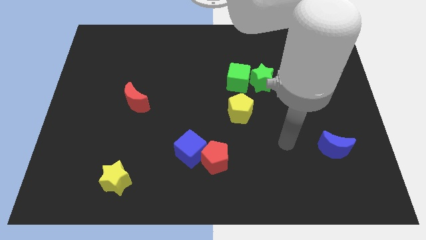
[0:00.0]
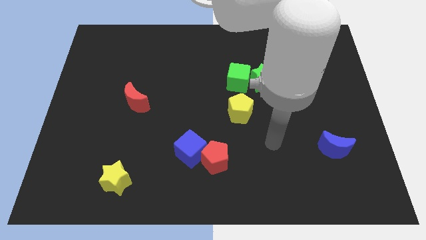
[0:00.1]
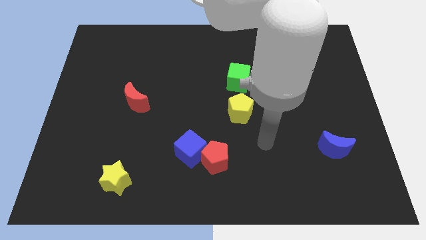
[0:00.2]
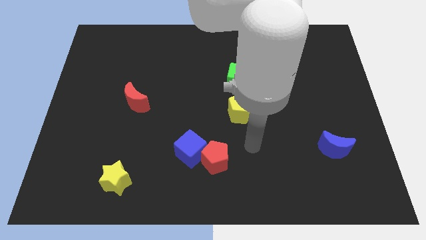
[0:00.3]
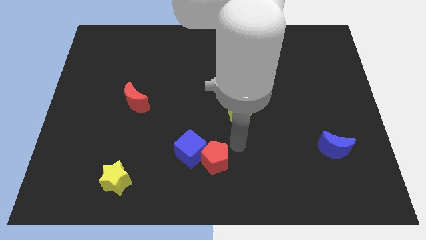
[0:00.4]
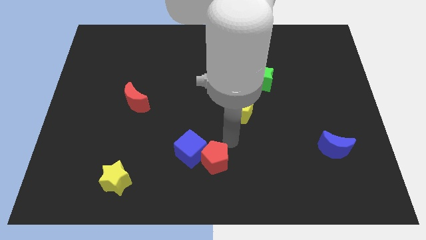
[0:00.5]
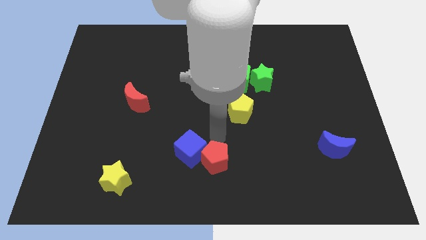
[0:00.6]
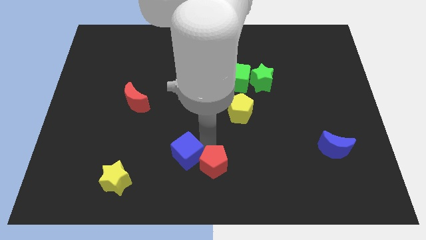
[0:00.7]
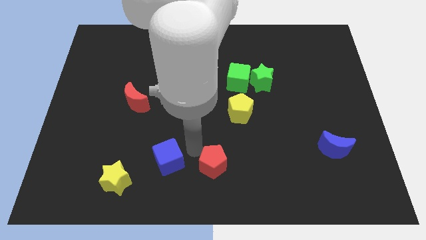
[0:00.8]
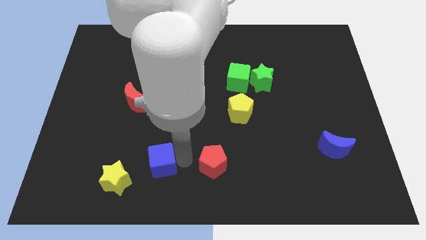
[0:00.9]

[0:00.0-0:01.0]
pull the red pentagon apart from the blue cube

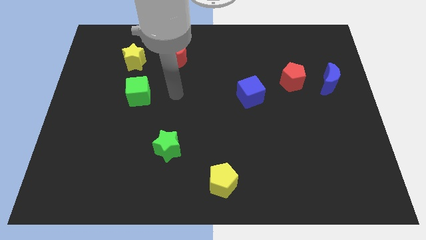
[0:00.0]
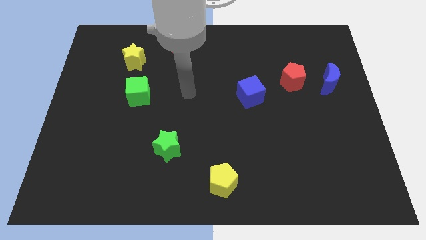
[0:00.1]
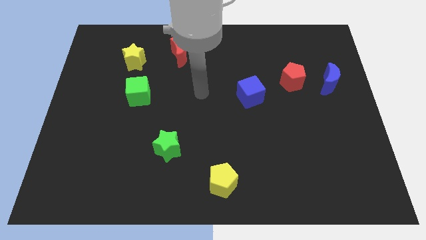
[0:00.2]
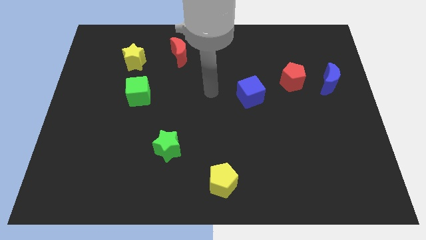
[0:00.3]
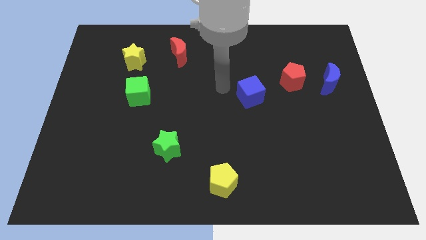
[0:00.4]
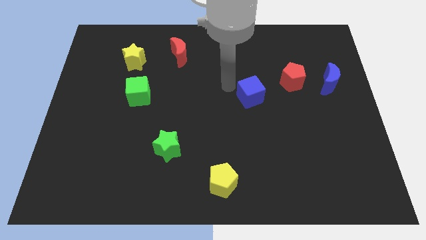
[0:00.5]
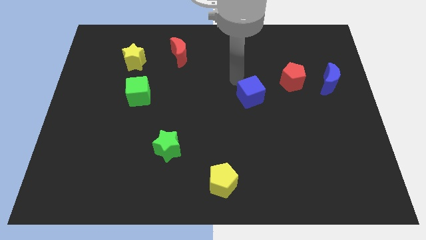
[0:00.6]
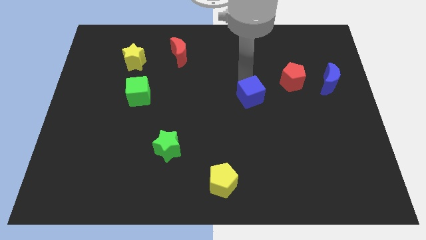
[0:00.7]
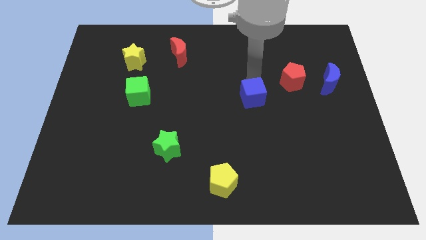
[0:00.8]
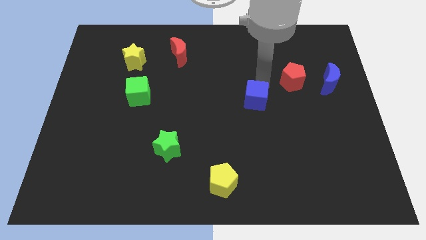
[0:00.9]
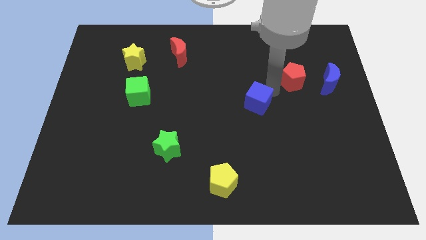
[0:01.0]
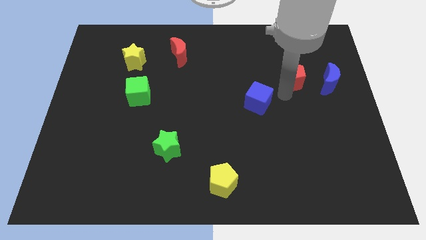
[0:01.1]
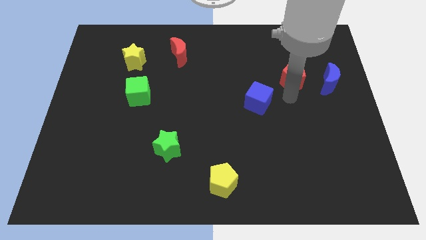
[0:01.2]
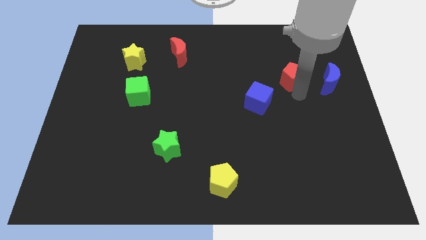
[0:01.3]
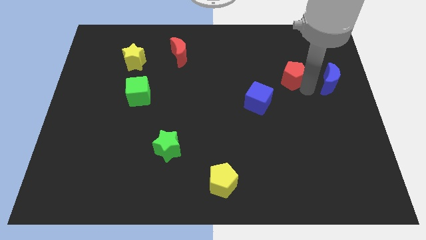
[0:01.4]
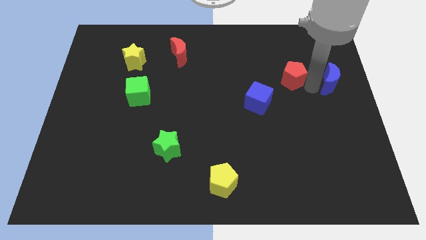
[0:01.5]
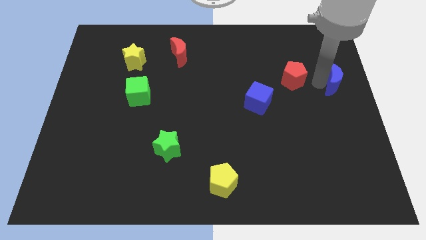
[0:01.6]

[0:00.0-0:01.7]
pull the red pentagon apart from the blue moon

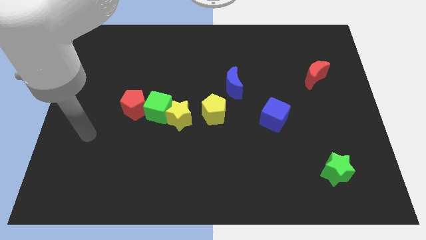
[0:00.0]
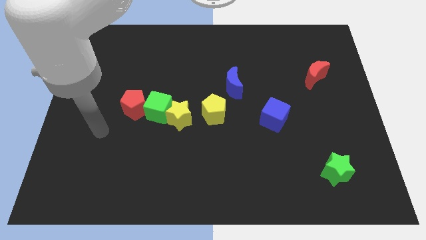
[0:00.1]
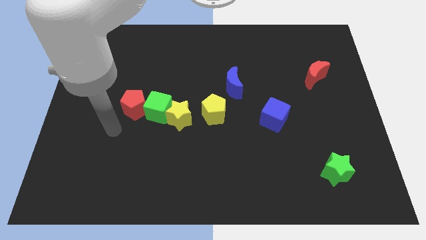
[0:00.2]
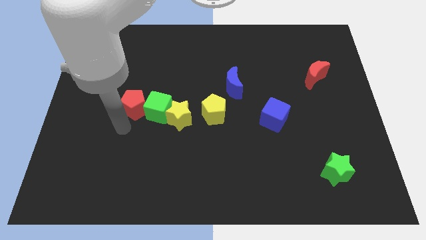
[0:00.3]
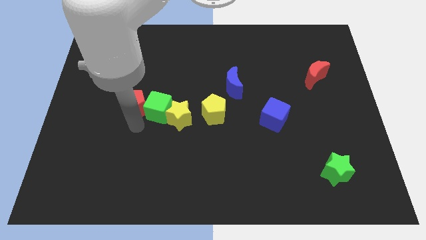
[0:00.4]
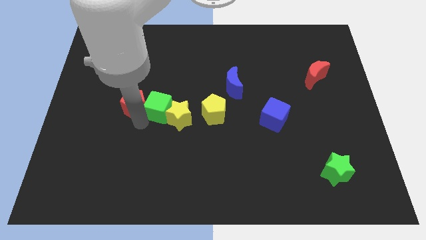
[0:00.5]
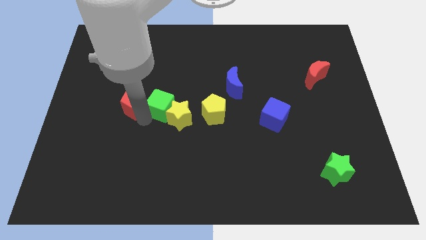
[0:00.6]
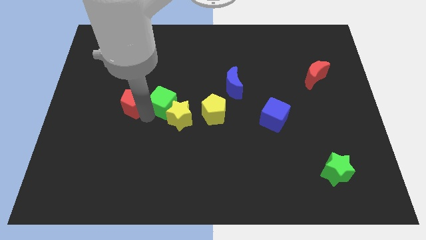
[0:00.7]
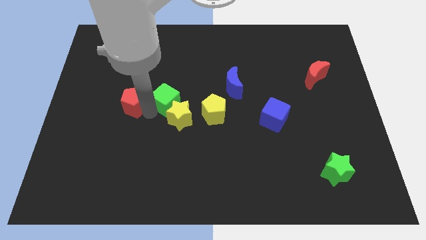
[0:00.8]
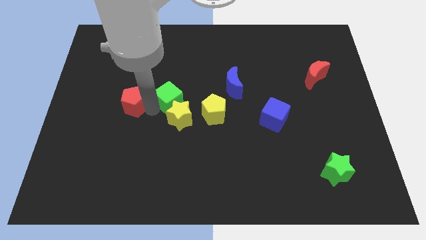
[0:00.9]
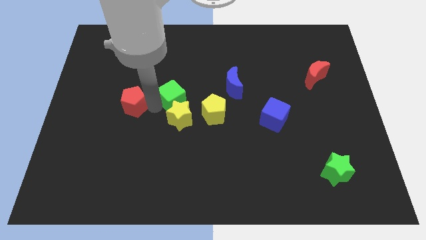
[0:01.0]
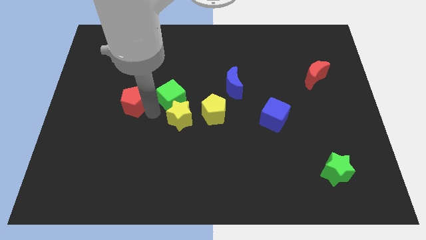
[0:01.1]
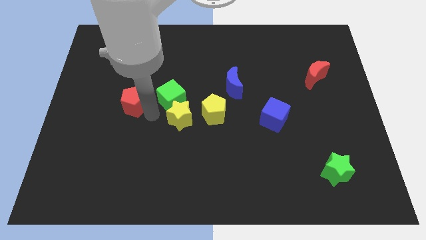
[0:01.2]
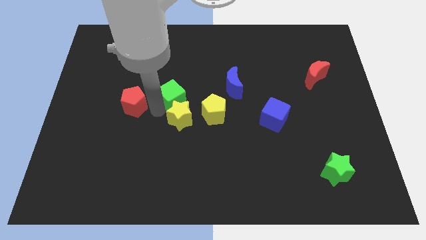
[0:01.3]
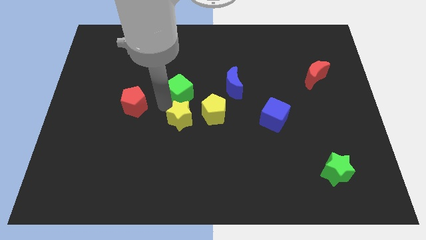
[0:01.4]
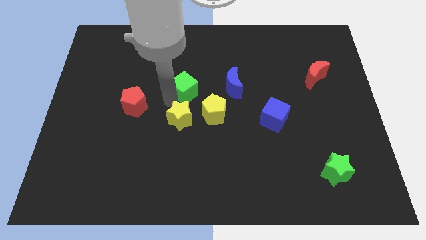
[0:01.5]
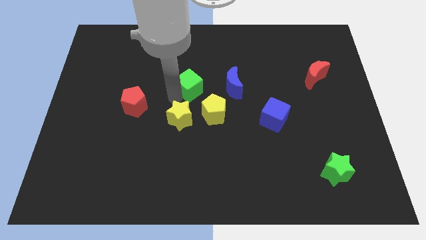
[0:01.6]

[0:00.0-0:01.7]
pull the green cube apart from the yellow star and red pentagon

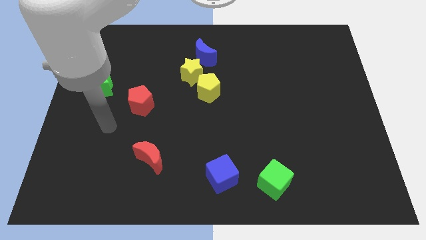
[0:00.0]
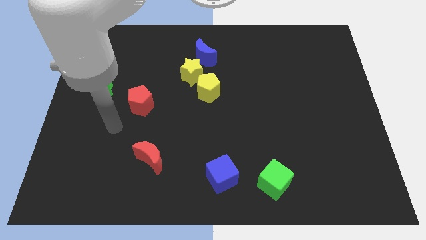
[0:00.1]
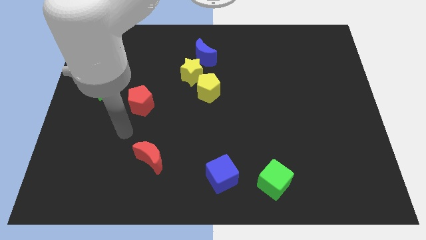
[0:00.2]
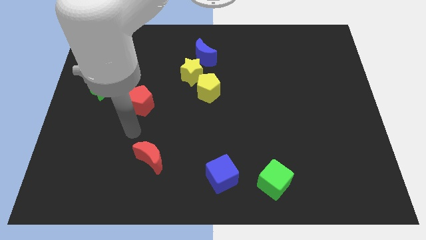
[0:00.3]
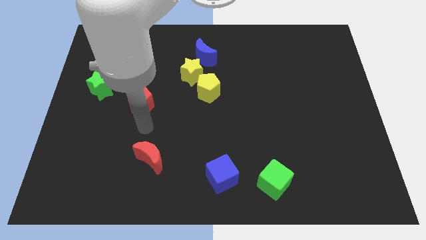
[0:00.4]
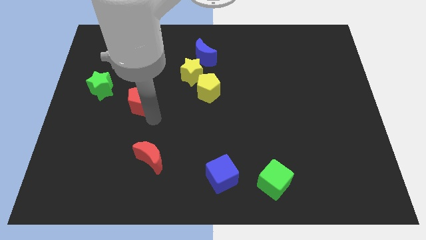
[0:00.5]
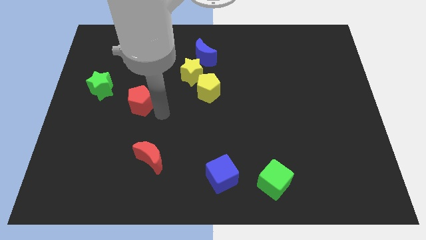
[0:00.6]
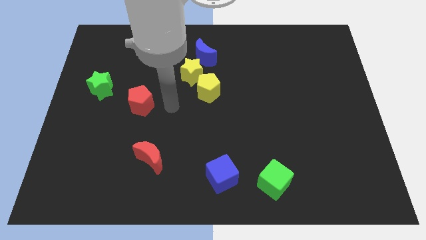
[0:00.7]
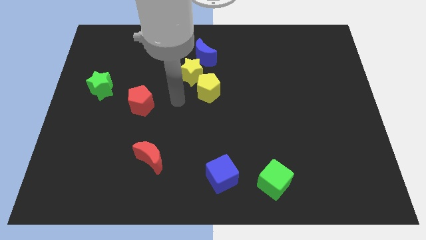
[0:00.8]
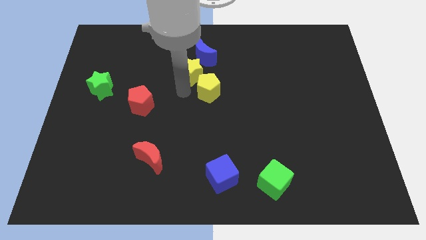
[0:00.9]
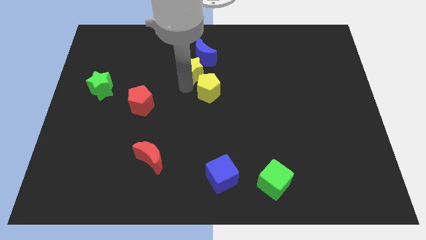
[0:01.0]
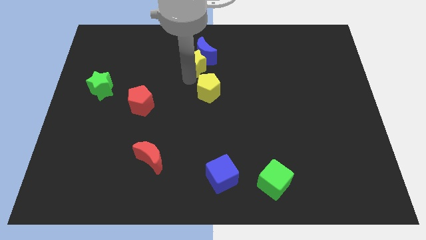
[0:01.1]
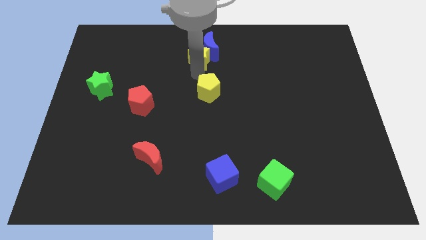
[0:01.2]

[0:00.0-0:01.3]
pull the yellow pentagon apart from the yellow star

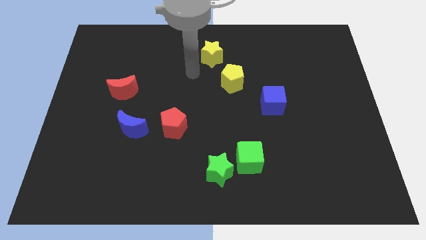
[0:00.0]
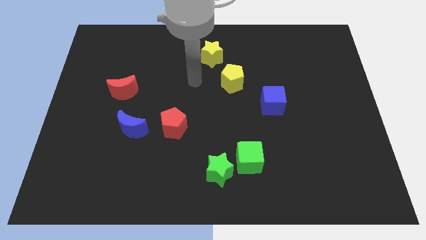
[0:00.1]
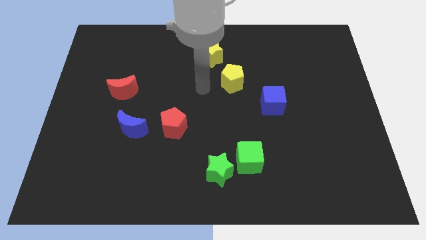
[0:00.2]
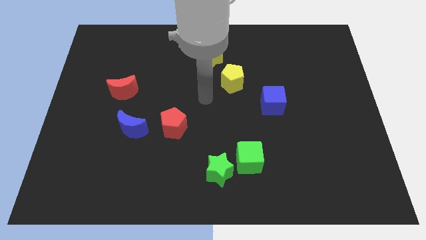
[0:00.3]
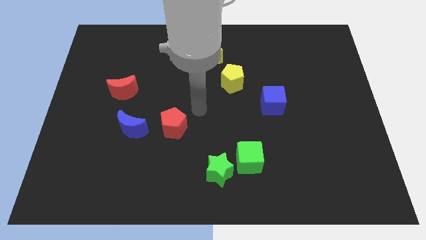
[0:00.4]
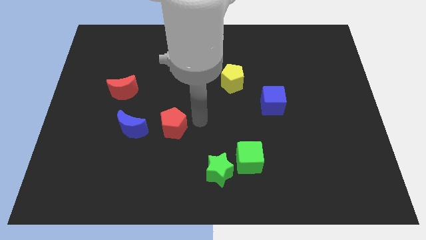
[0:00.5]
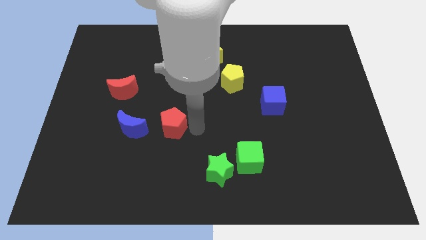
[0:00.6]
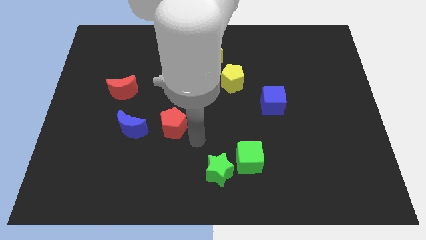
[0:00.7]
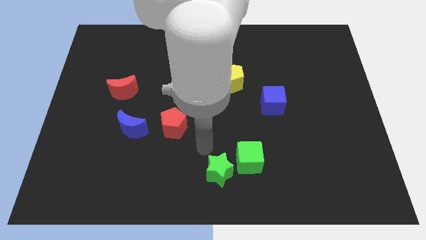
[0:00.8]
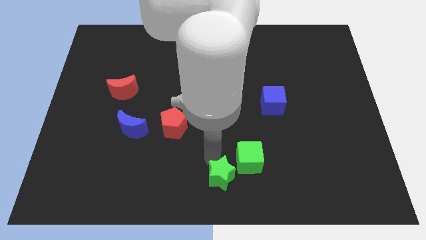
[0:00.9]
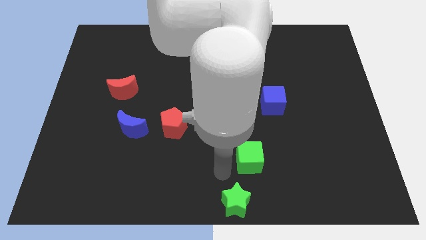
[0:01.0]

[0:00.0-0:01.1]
pull the green cube apart from the green star

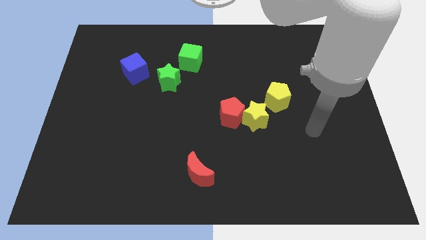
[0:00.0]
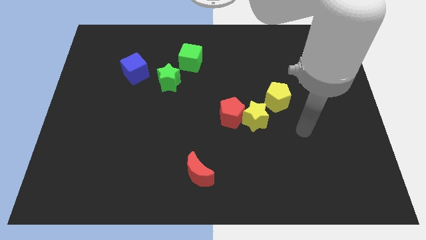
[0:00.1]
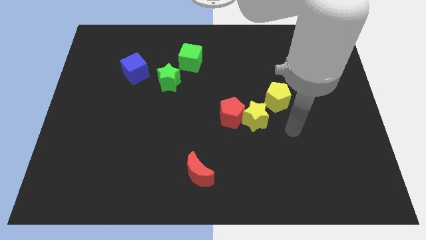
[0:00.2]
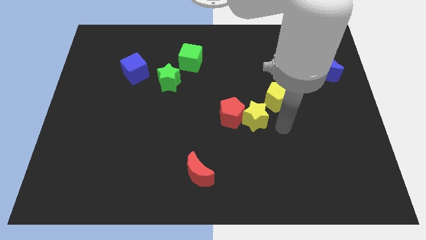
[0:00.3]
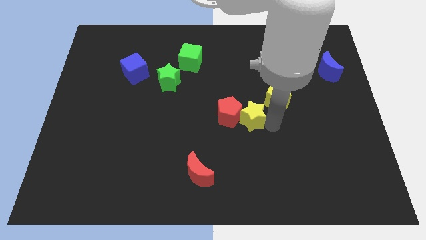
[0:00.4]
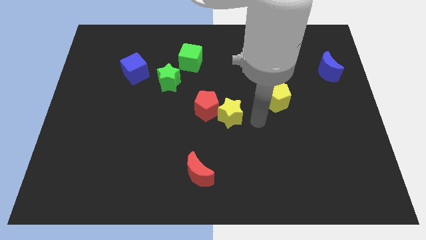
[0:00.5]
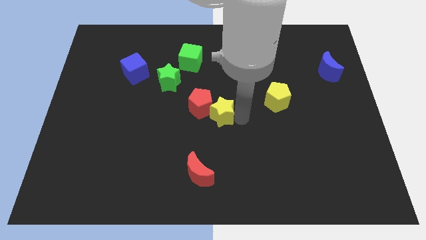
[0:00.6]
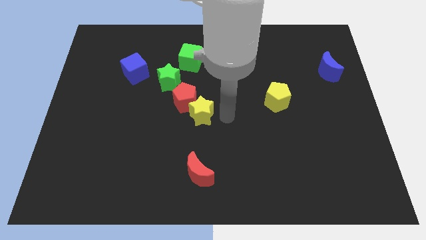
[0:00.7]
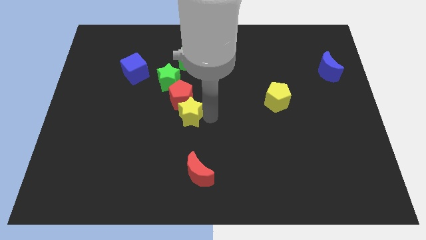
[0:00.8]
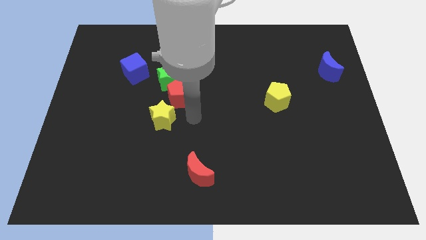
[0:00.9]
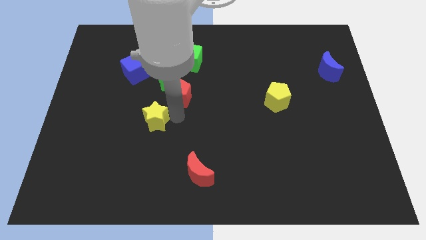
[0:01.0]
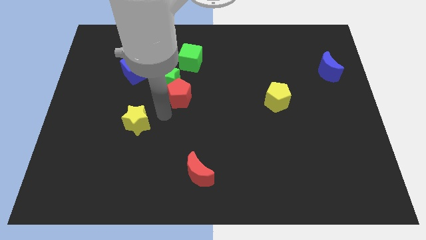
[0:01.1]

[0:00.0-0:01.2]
separate the red pentagon from the yellow star

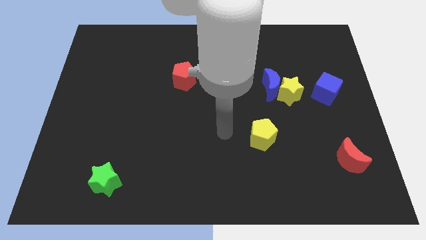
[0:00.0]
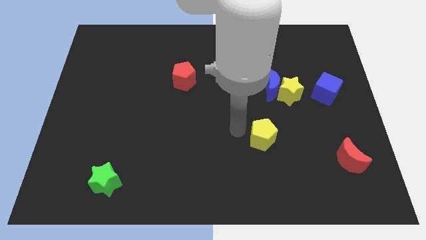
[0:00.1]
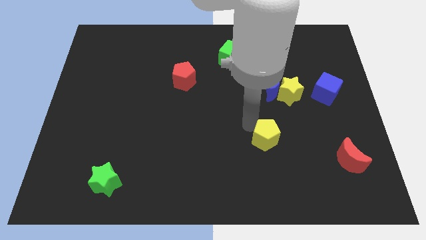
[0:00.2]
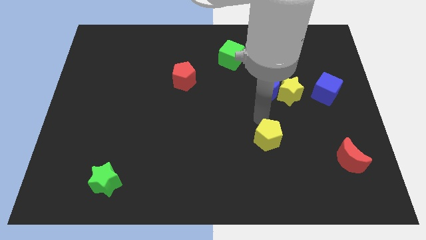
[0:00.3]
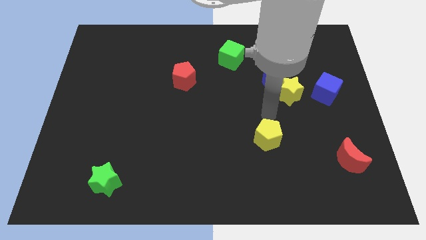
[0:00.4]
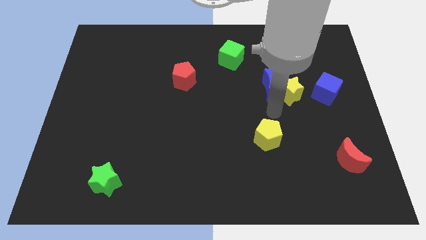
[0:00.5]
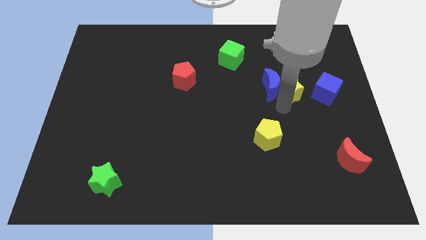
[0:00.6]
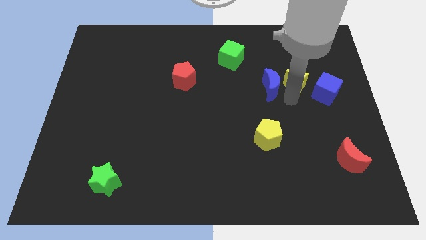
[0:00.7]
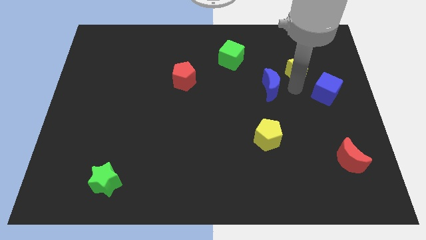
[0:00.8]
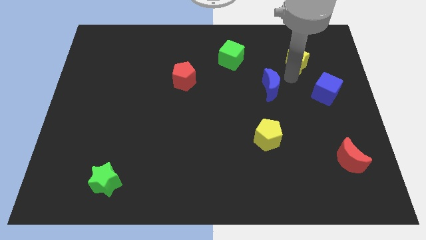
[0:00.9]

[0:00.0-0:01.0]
pull the blue moon apart from the yellow star

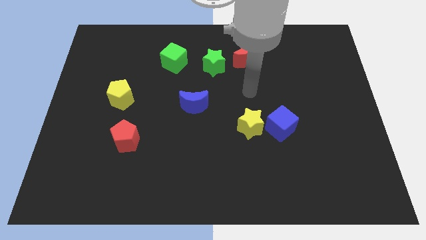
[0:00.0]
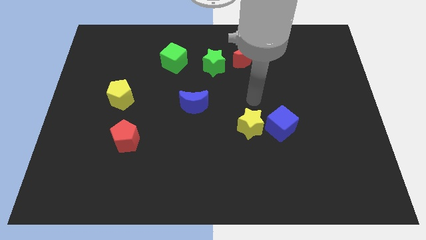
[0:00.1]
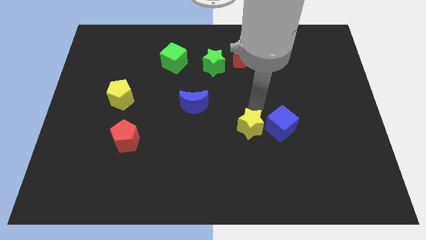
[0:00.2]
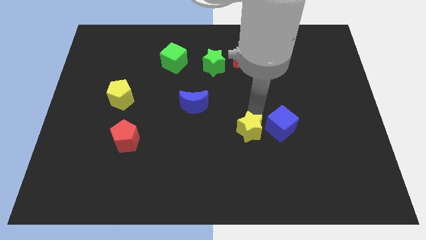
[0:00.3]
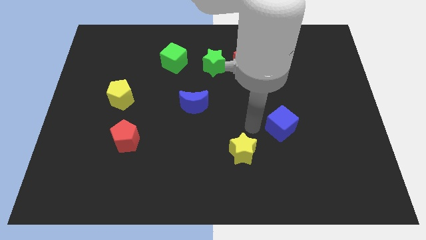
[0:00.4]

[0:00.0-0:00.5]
move the blue cube away from the yellow star
